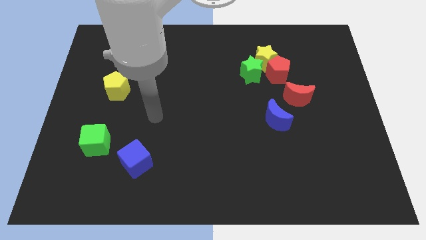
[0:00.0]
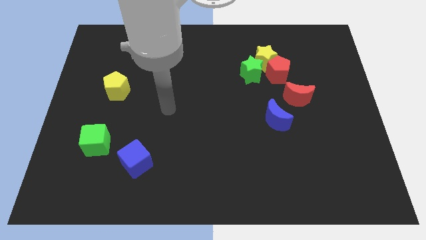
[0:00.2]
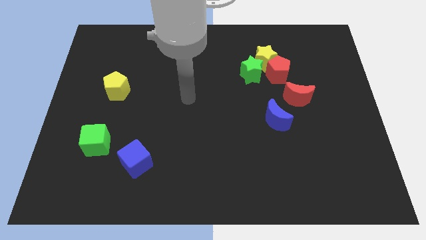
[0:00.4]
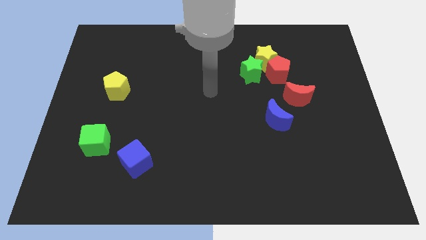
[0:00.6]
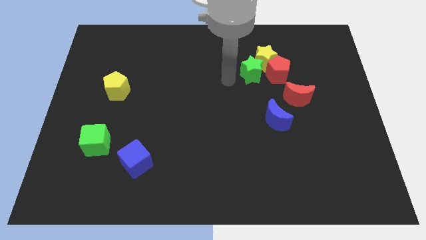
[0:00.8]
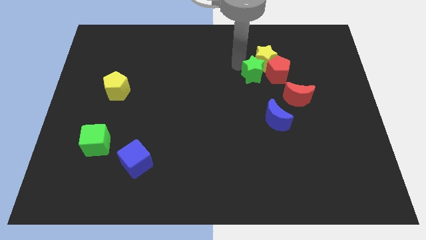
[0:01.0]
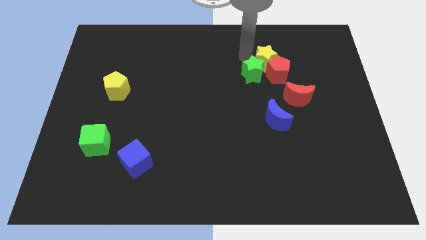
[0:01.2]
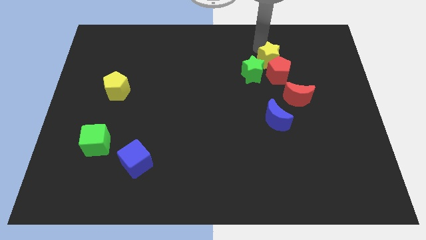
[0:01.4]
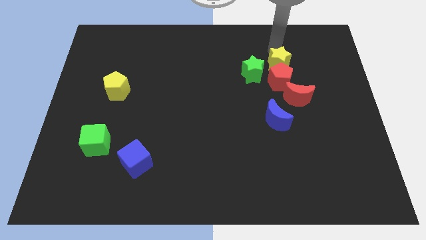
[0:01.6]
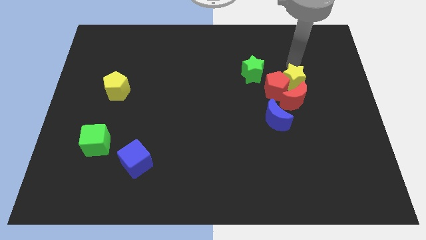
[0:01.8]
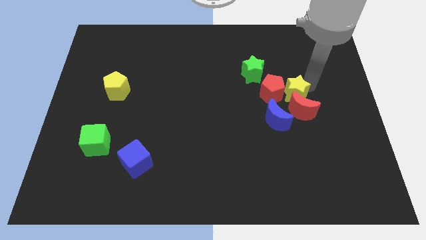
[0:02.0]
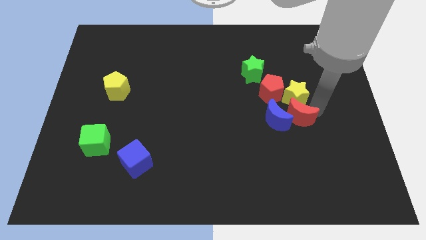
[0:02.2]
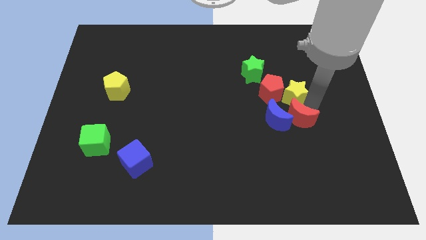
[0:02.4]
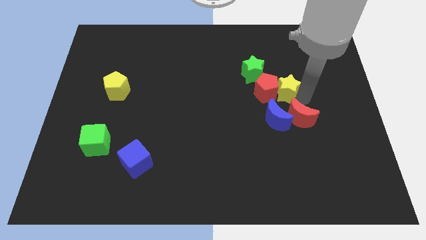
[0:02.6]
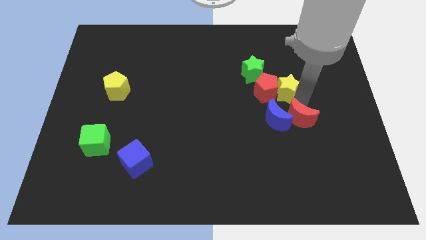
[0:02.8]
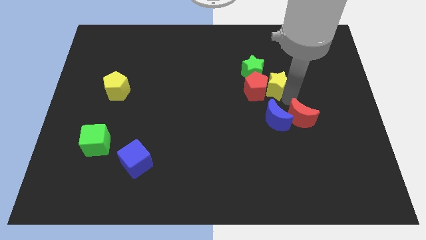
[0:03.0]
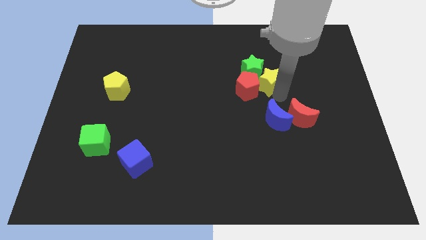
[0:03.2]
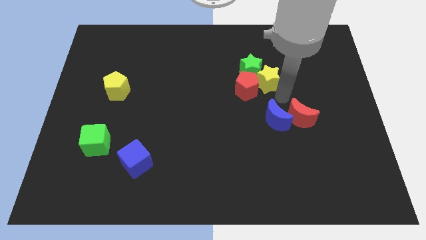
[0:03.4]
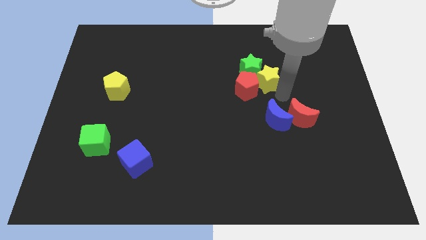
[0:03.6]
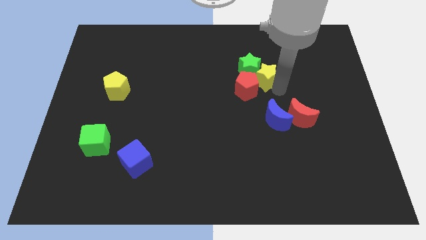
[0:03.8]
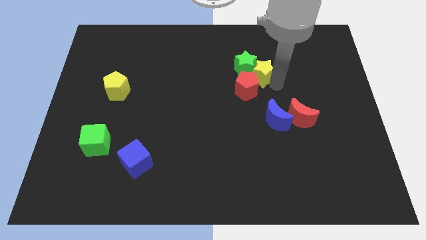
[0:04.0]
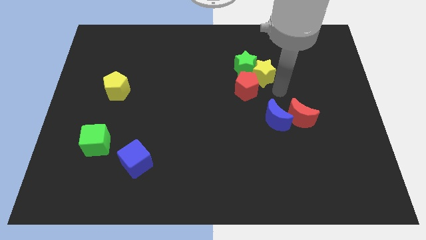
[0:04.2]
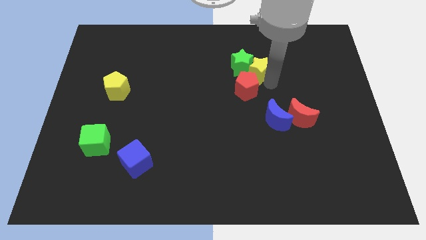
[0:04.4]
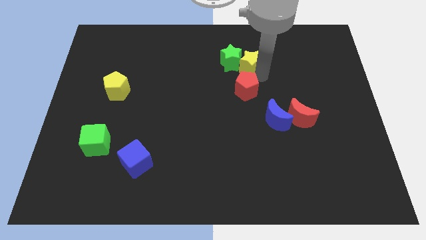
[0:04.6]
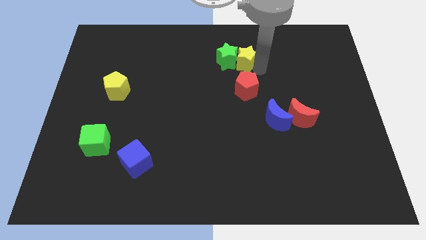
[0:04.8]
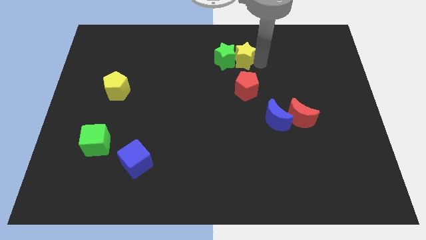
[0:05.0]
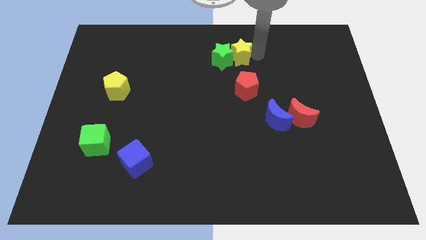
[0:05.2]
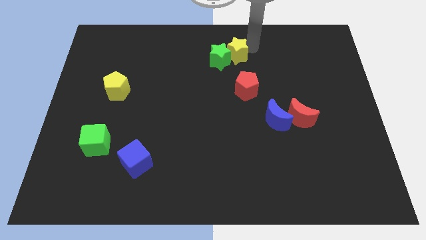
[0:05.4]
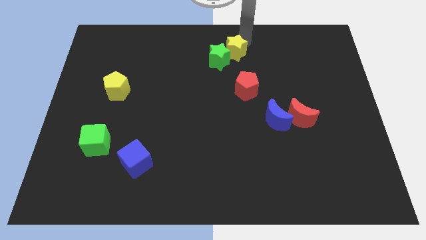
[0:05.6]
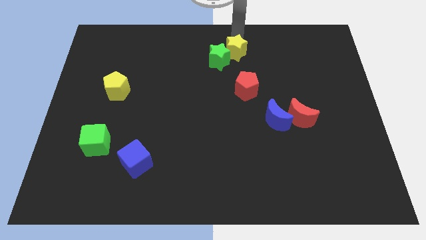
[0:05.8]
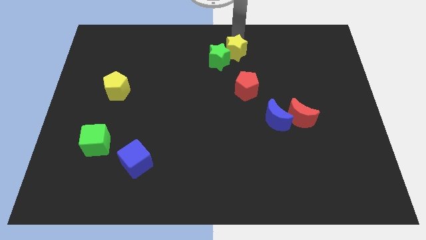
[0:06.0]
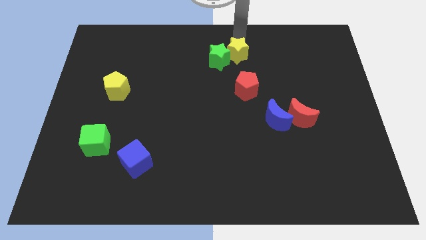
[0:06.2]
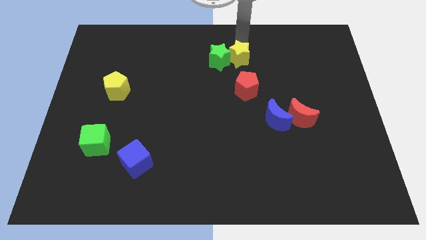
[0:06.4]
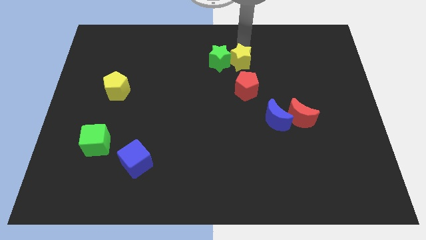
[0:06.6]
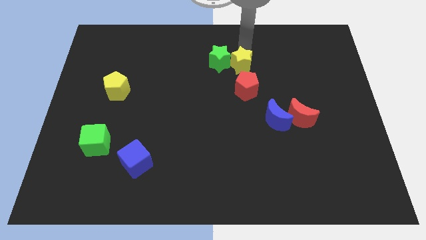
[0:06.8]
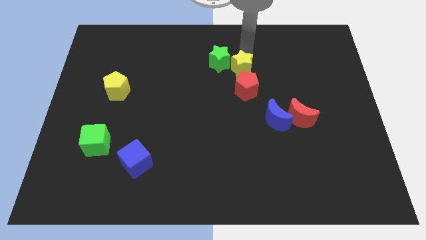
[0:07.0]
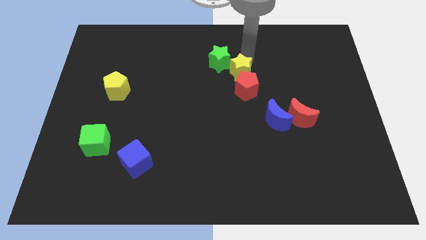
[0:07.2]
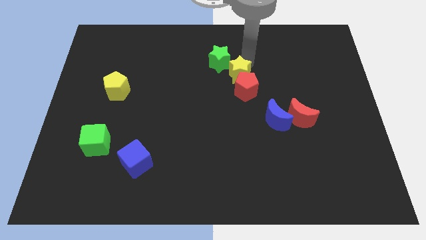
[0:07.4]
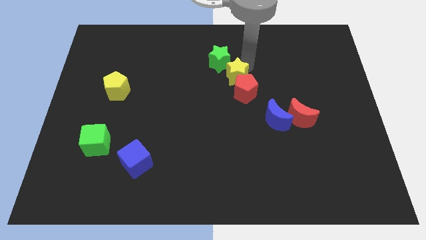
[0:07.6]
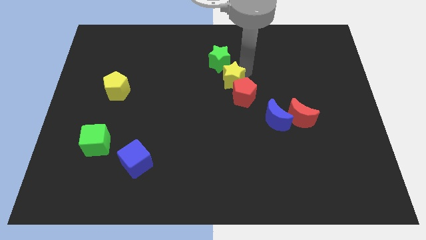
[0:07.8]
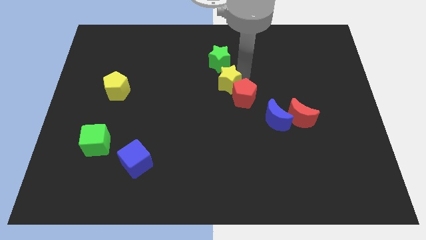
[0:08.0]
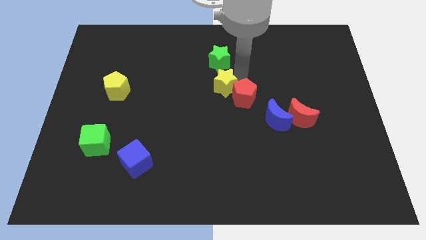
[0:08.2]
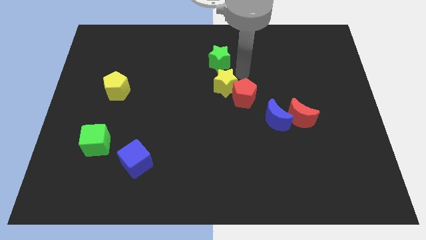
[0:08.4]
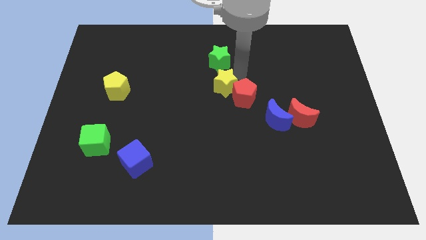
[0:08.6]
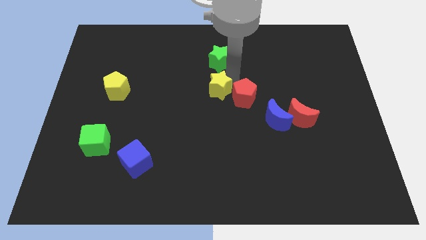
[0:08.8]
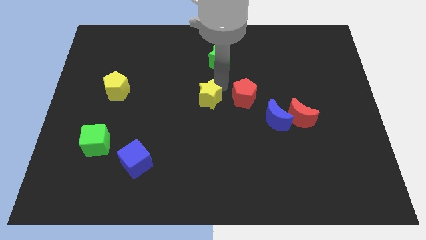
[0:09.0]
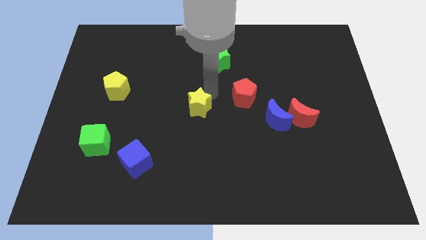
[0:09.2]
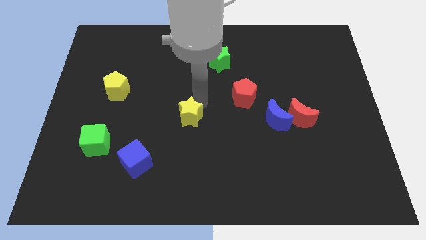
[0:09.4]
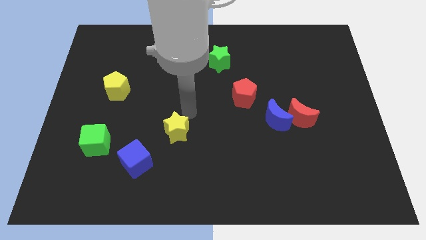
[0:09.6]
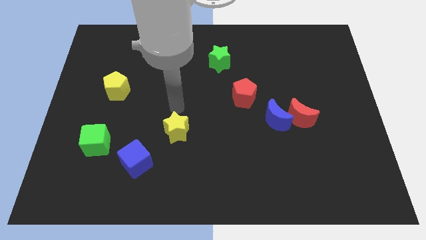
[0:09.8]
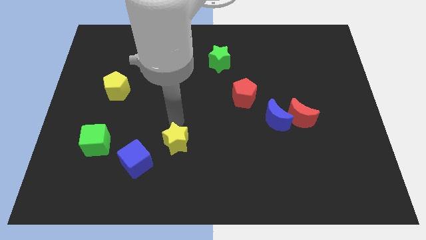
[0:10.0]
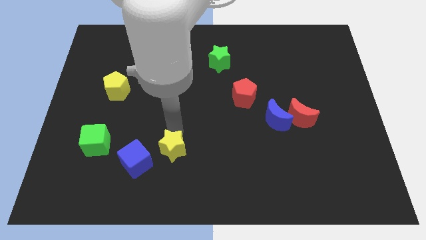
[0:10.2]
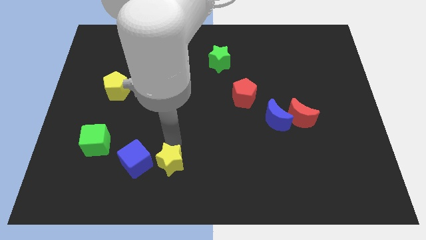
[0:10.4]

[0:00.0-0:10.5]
move the yellow star to the bottom right of the blue cube

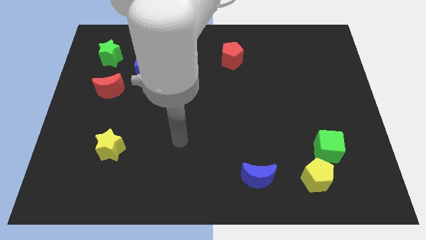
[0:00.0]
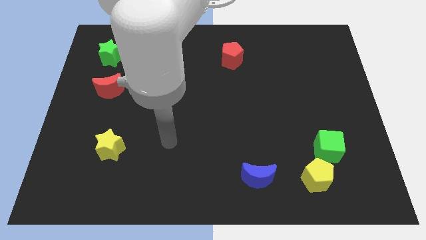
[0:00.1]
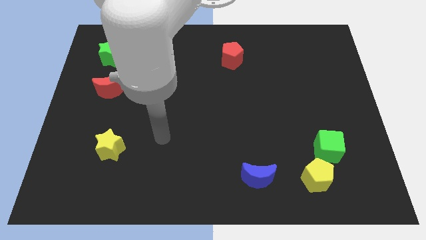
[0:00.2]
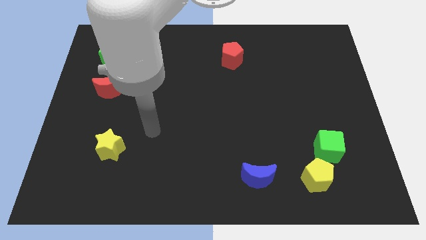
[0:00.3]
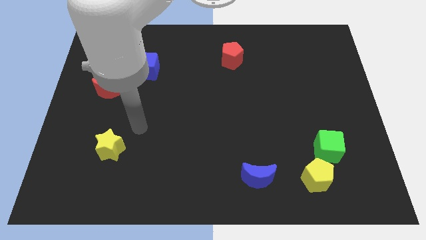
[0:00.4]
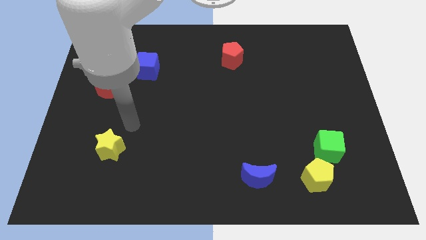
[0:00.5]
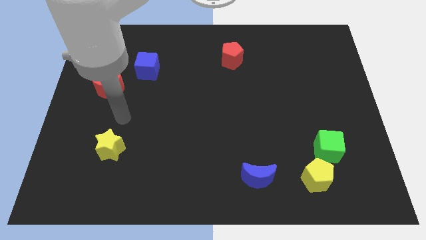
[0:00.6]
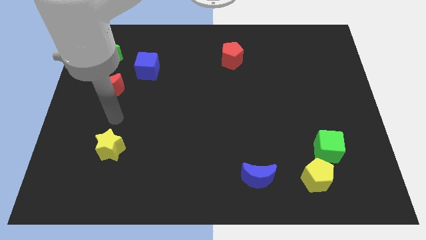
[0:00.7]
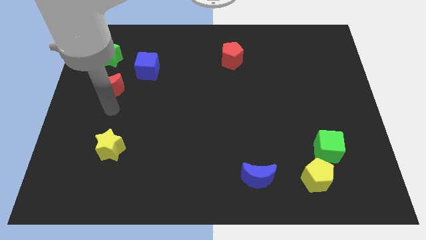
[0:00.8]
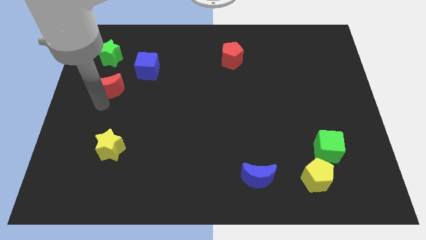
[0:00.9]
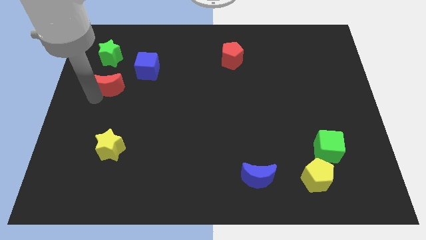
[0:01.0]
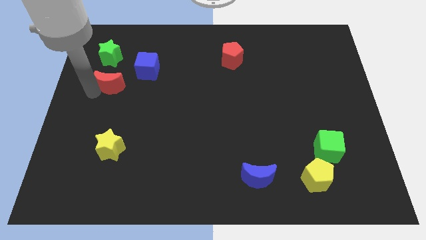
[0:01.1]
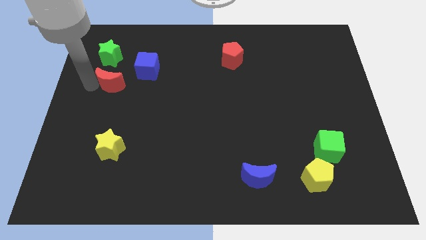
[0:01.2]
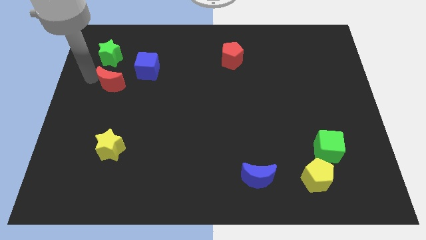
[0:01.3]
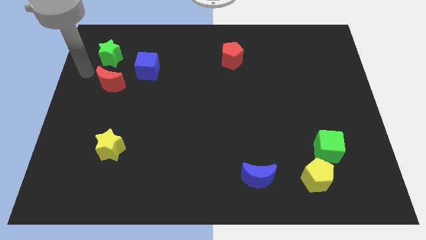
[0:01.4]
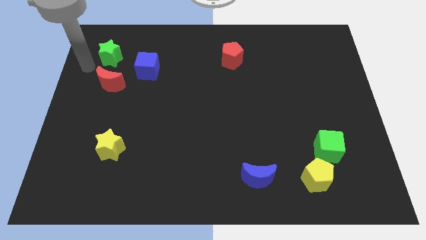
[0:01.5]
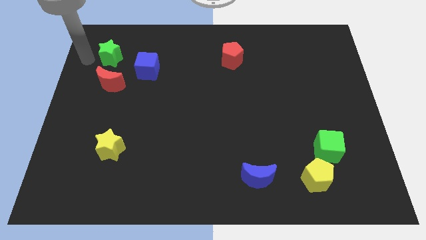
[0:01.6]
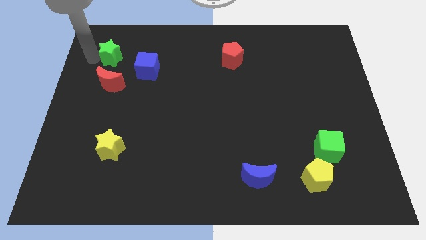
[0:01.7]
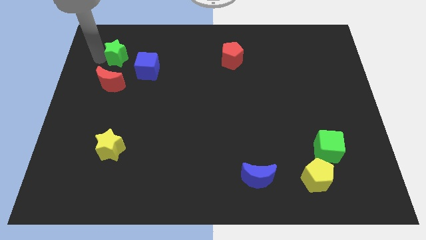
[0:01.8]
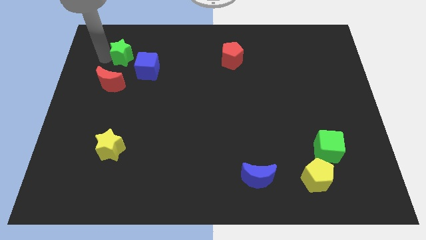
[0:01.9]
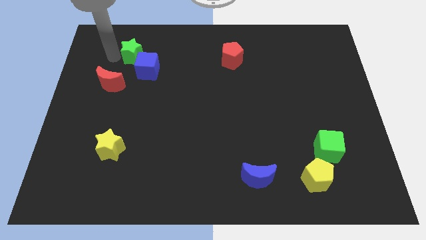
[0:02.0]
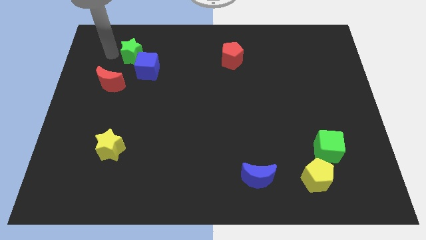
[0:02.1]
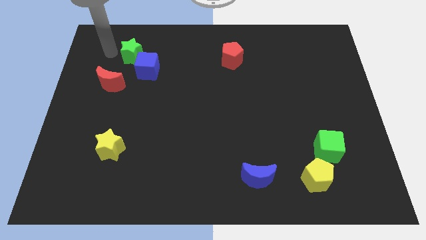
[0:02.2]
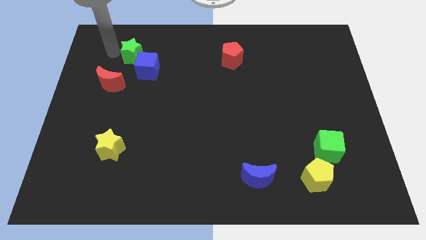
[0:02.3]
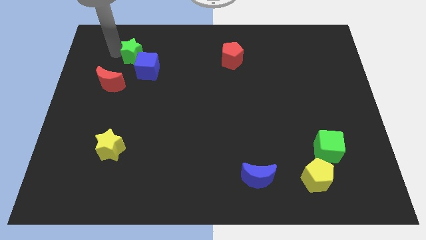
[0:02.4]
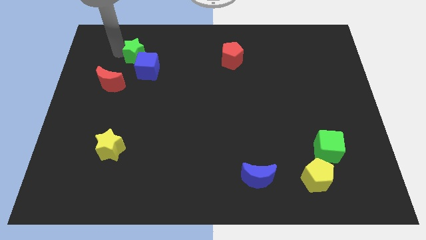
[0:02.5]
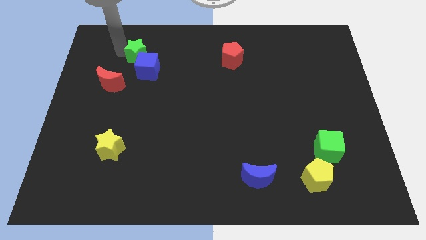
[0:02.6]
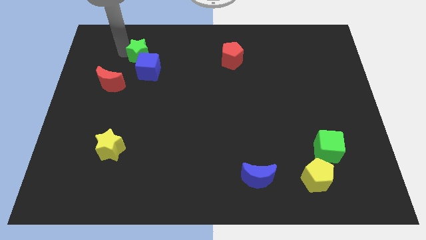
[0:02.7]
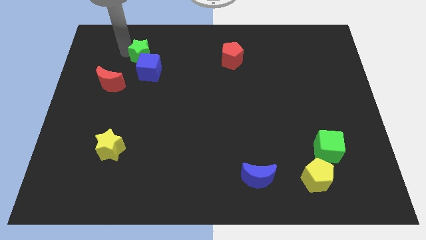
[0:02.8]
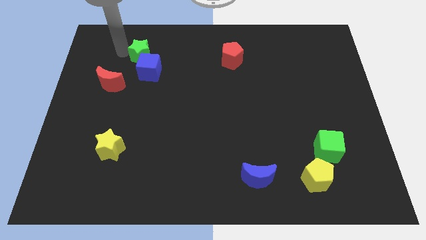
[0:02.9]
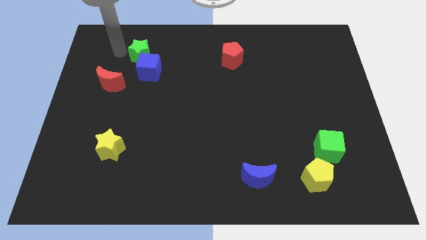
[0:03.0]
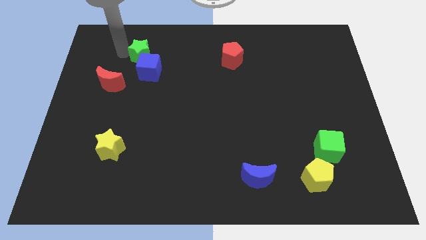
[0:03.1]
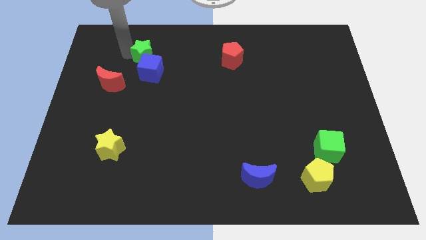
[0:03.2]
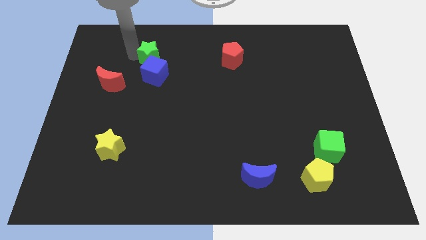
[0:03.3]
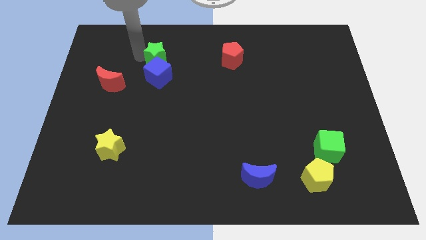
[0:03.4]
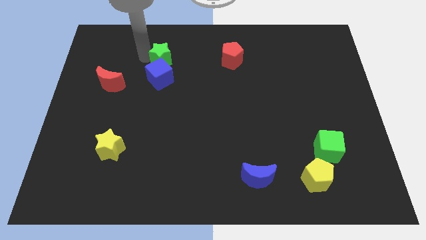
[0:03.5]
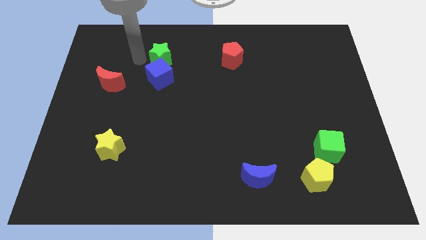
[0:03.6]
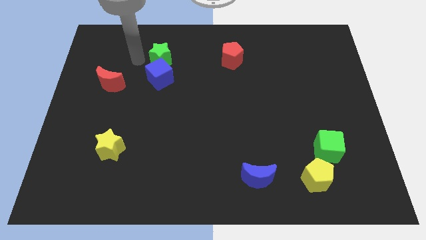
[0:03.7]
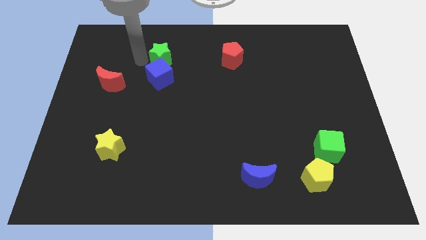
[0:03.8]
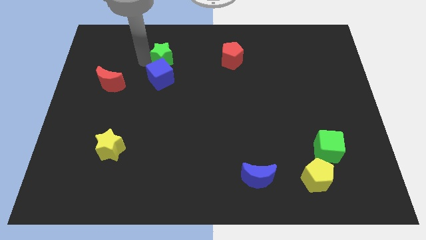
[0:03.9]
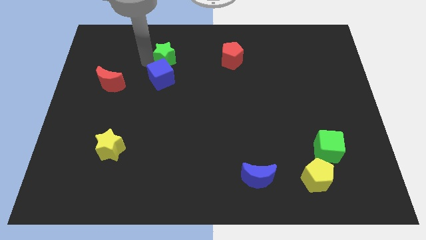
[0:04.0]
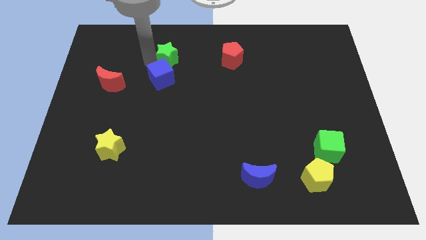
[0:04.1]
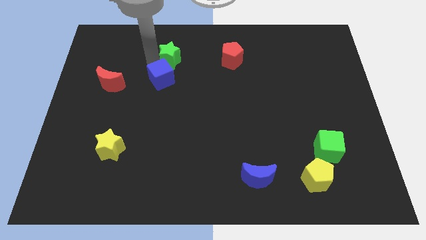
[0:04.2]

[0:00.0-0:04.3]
push the green star to the left side of the red pentagon
